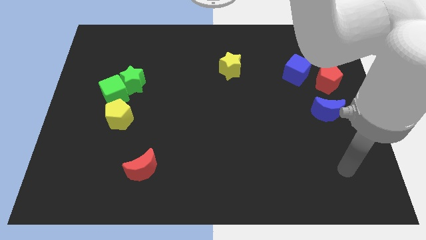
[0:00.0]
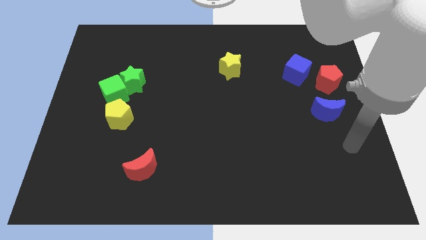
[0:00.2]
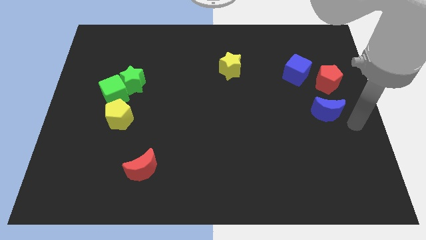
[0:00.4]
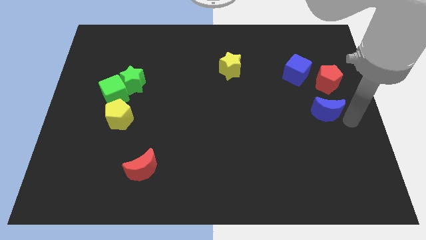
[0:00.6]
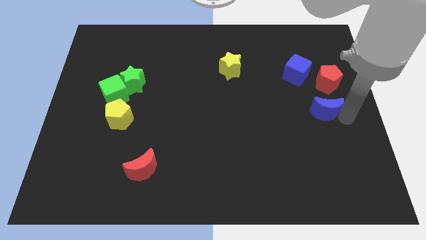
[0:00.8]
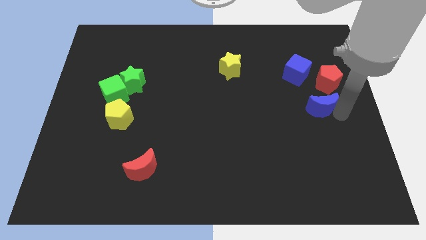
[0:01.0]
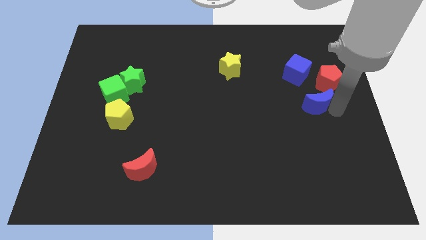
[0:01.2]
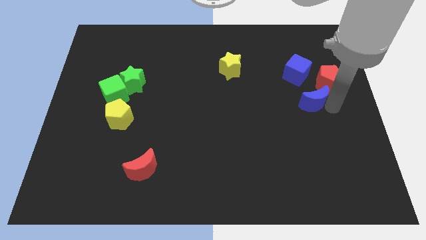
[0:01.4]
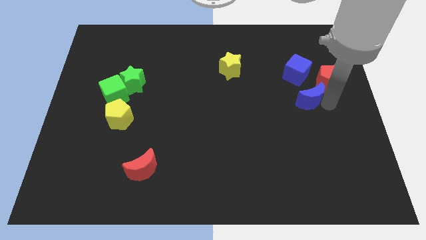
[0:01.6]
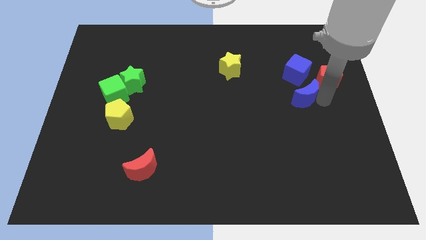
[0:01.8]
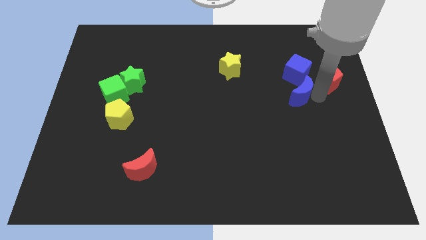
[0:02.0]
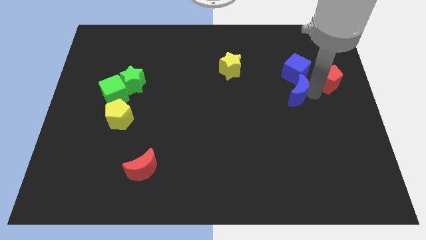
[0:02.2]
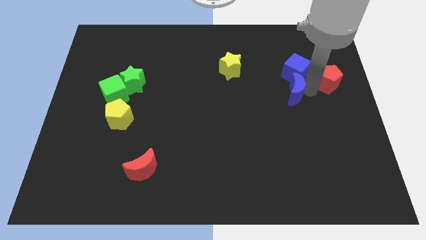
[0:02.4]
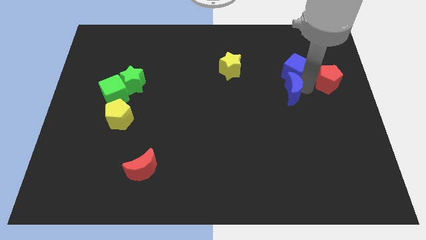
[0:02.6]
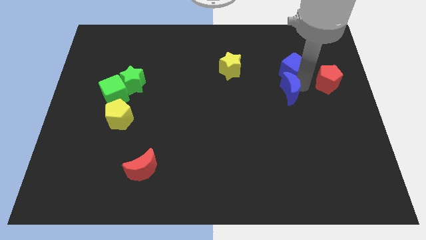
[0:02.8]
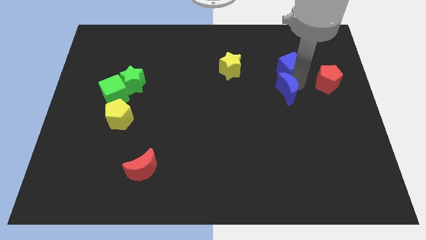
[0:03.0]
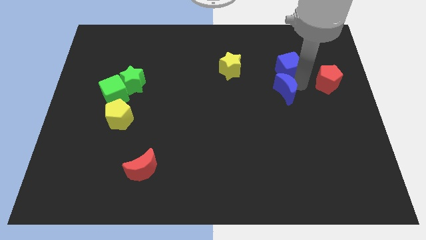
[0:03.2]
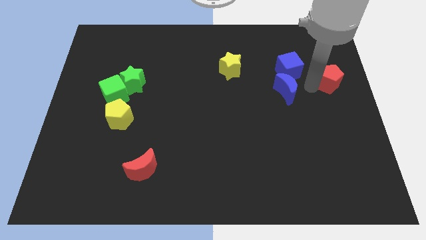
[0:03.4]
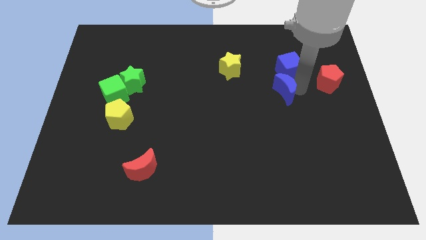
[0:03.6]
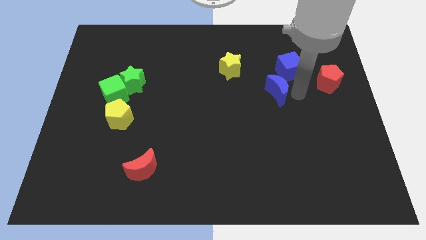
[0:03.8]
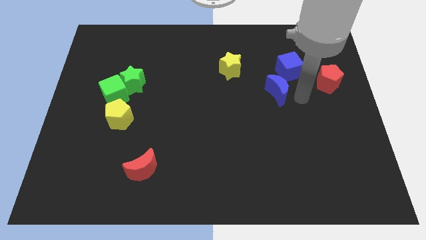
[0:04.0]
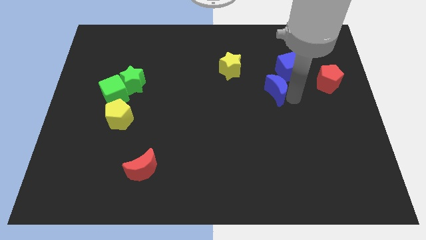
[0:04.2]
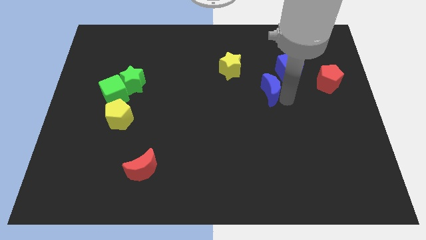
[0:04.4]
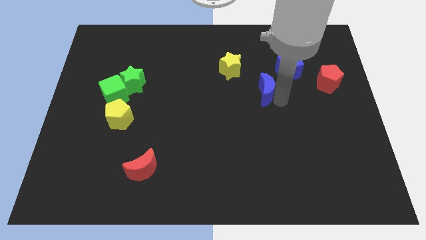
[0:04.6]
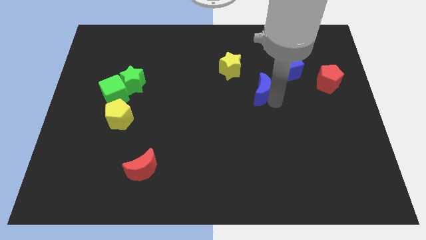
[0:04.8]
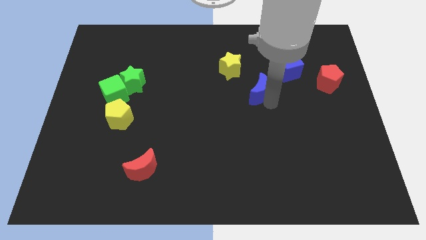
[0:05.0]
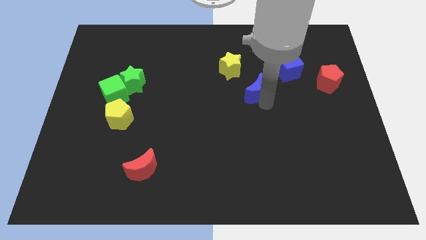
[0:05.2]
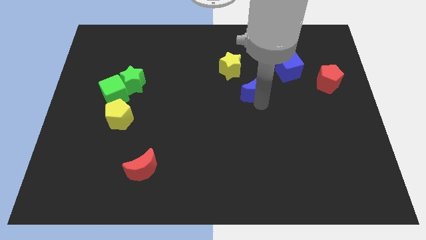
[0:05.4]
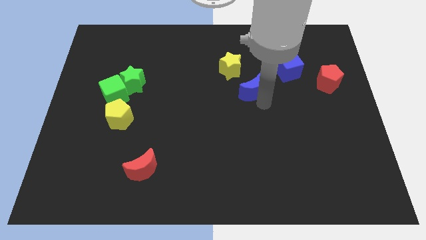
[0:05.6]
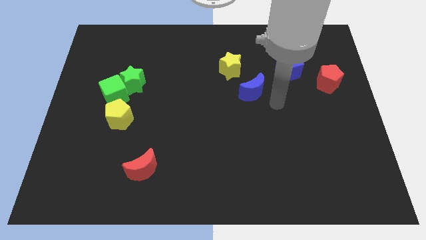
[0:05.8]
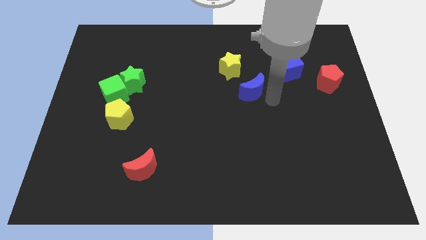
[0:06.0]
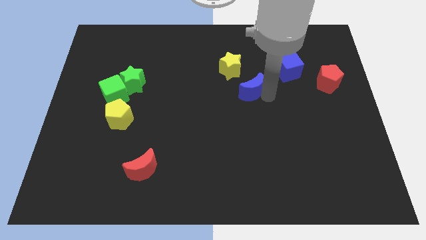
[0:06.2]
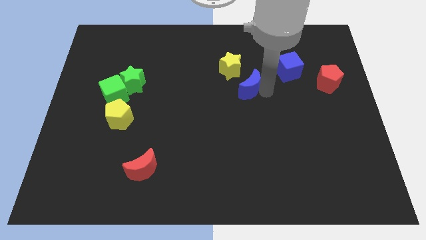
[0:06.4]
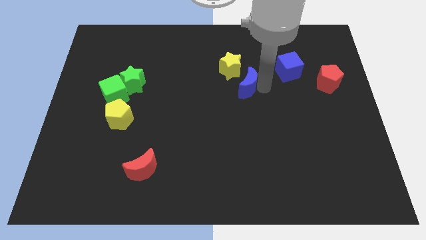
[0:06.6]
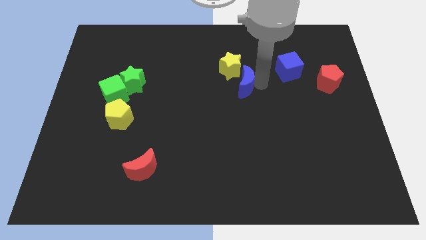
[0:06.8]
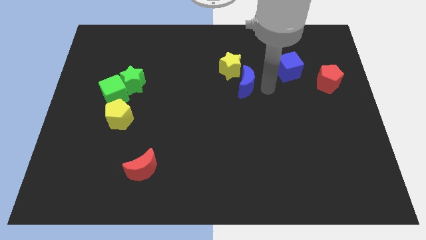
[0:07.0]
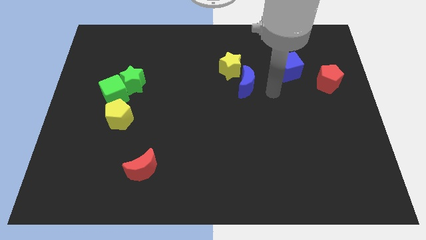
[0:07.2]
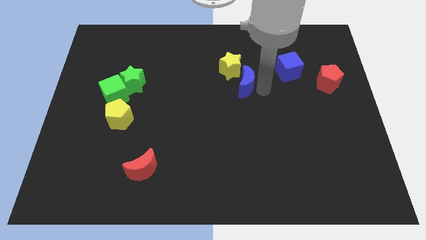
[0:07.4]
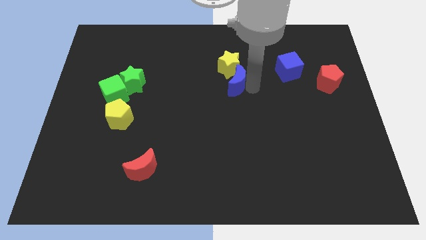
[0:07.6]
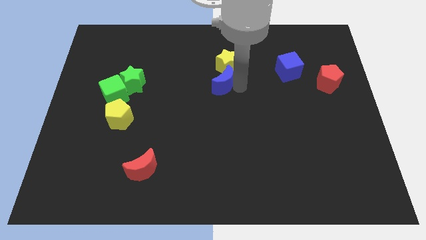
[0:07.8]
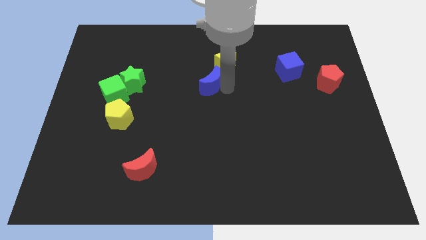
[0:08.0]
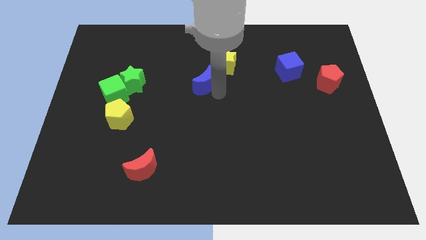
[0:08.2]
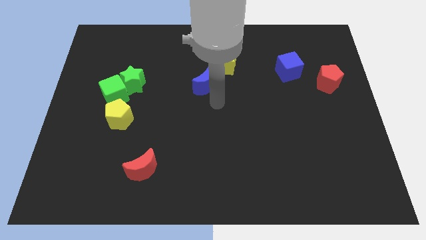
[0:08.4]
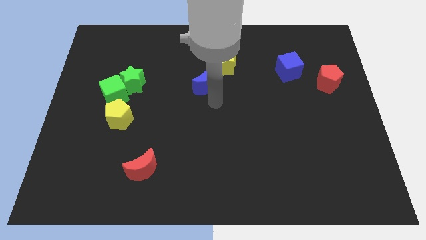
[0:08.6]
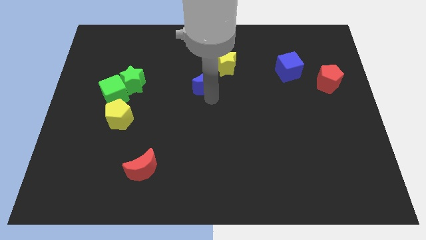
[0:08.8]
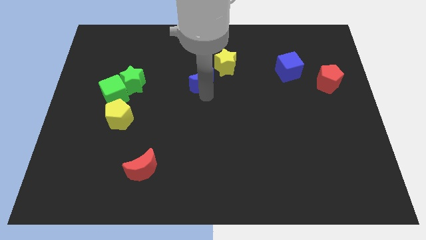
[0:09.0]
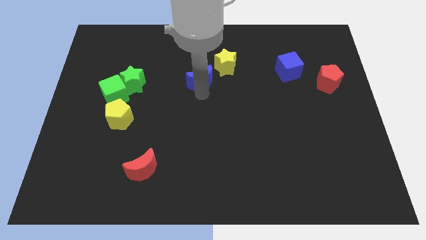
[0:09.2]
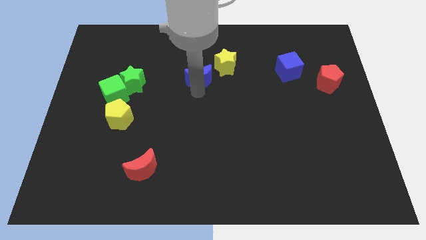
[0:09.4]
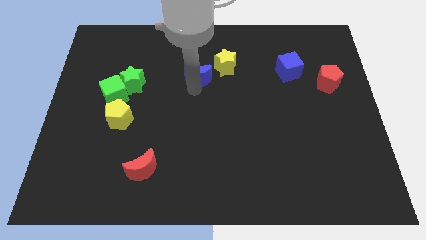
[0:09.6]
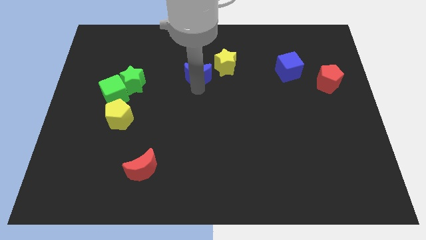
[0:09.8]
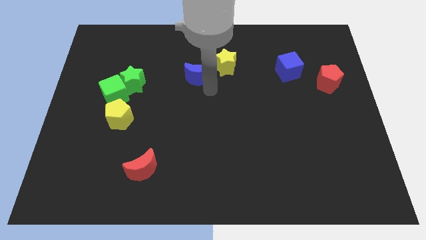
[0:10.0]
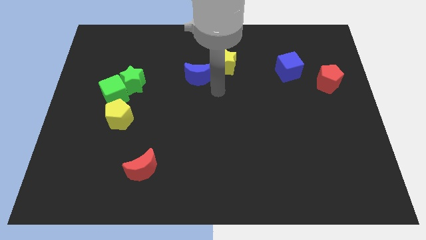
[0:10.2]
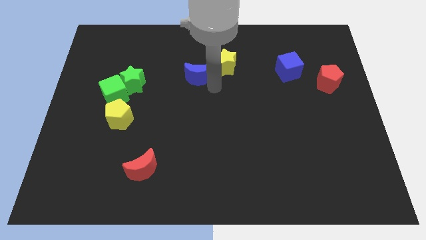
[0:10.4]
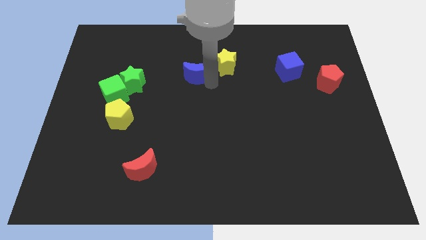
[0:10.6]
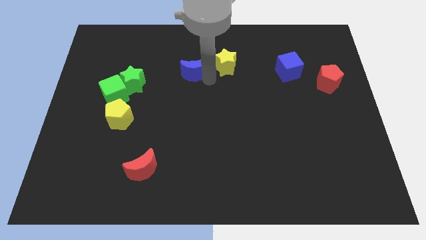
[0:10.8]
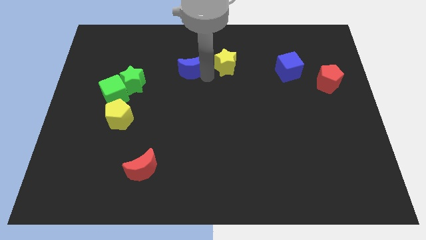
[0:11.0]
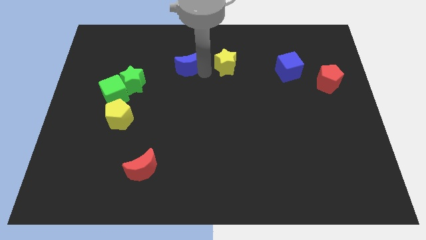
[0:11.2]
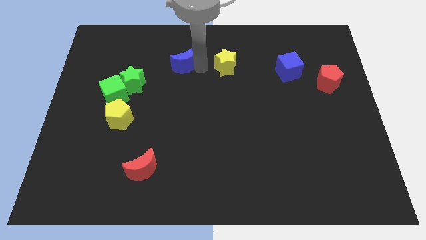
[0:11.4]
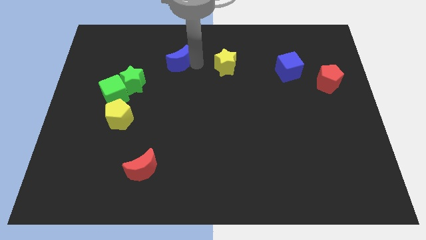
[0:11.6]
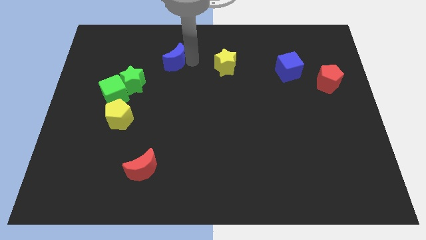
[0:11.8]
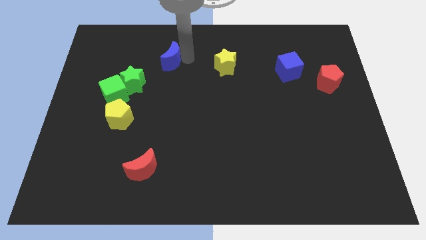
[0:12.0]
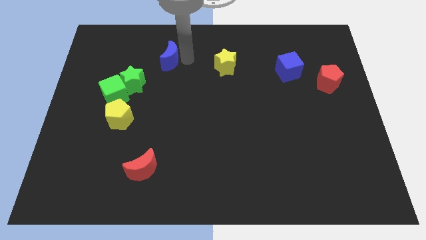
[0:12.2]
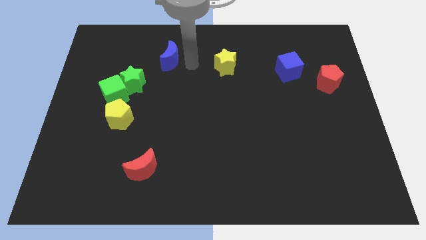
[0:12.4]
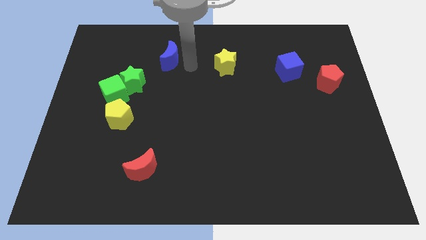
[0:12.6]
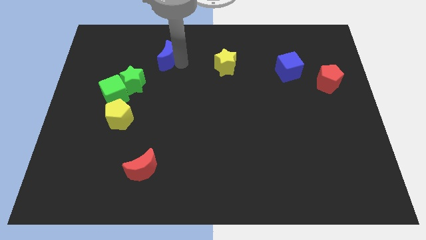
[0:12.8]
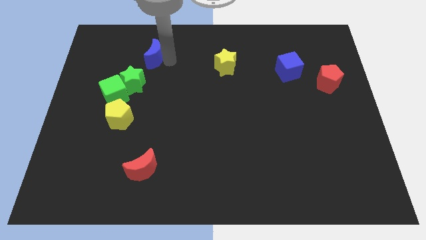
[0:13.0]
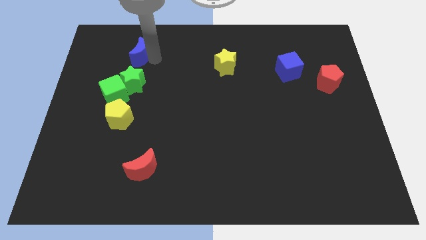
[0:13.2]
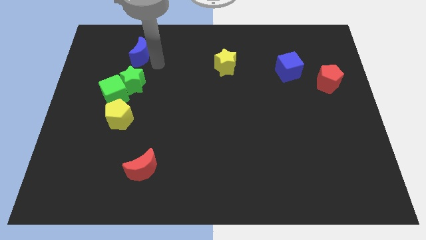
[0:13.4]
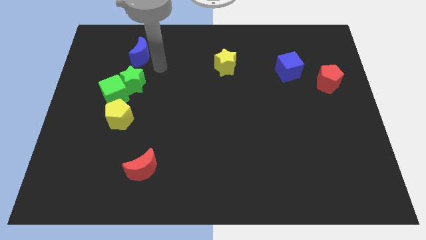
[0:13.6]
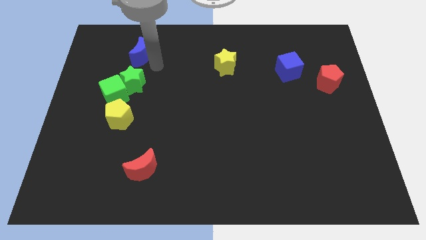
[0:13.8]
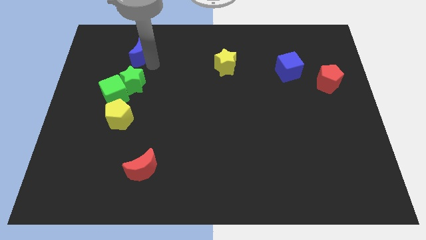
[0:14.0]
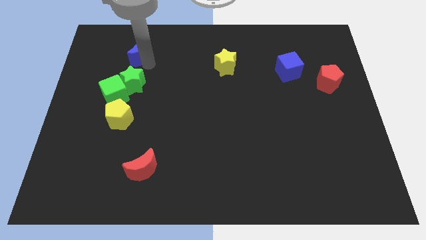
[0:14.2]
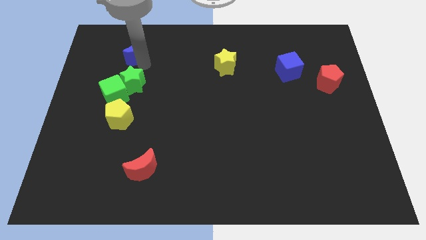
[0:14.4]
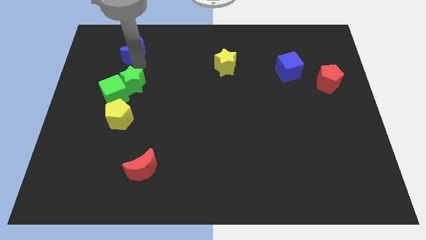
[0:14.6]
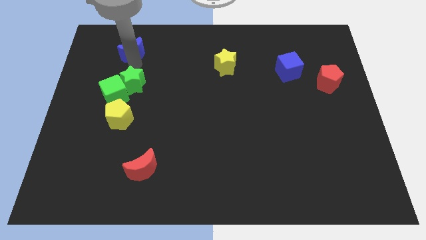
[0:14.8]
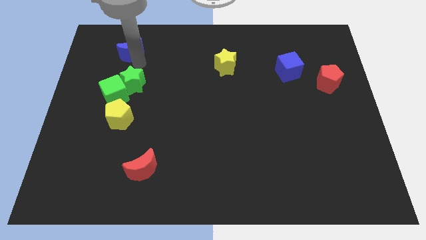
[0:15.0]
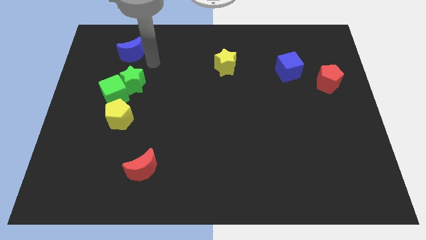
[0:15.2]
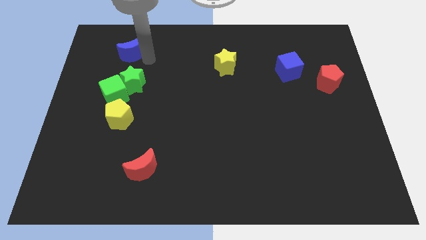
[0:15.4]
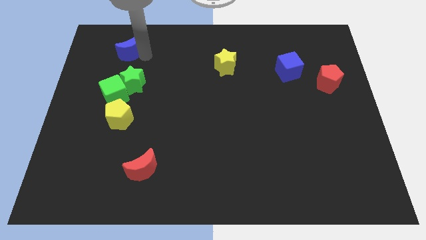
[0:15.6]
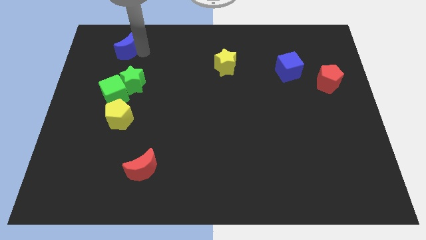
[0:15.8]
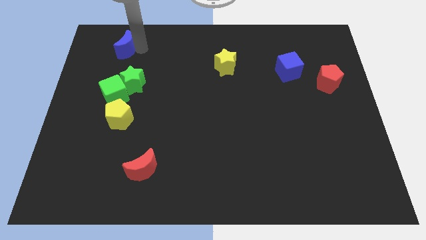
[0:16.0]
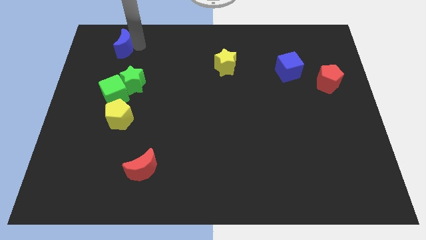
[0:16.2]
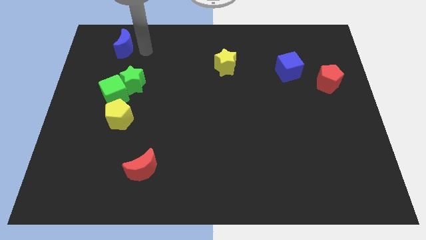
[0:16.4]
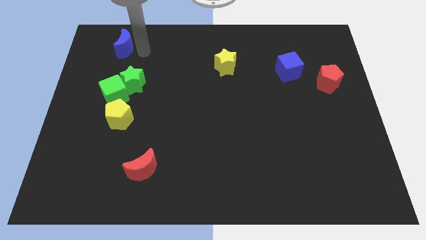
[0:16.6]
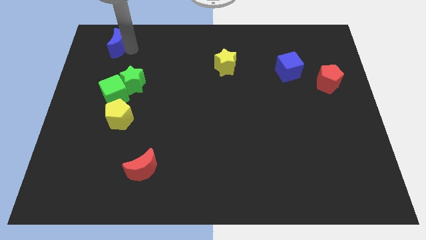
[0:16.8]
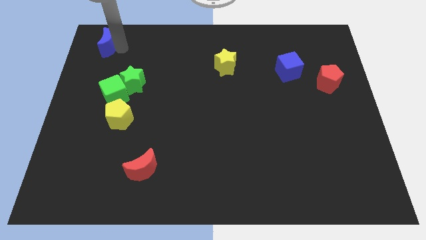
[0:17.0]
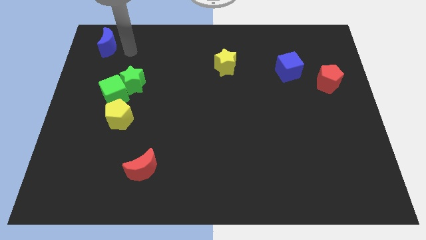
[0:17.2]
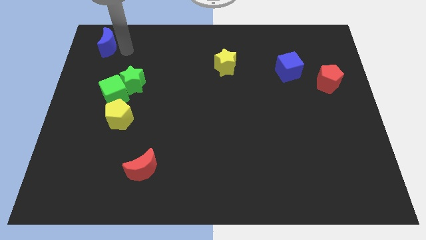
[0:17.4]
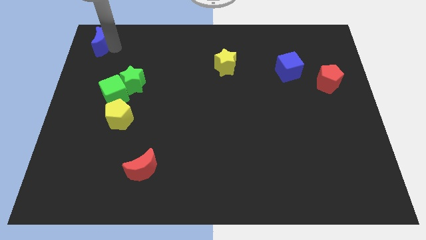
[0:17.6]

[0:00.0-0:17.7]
slide the blue moon to the top left
